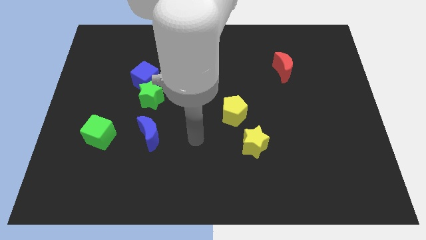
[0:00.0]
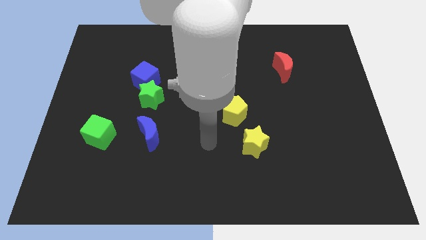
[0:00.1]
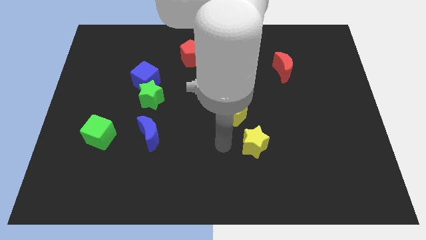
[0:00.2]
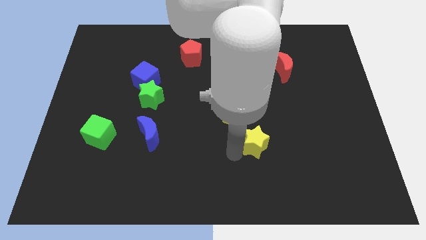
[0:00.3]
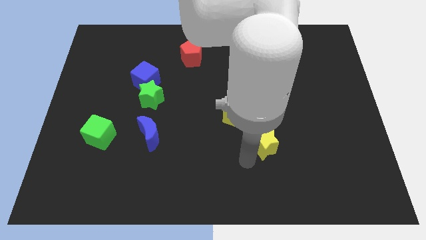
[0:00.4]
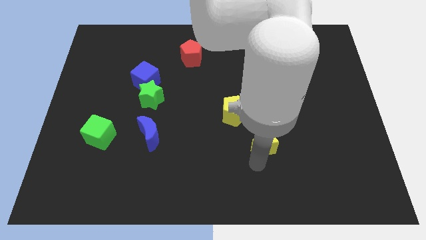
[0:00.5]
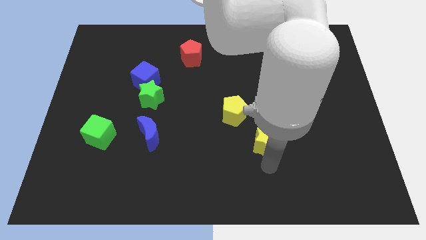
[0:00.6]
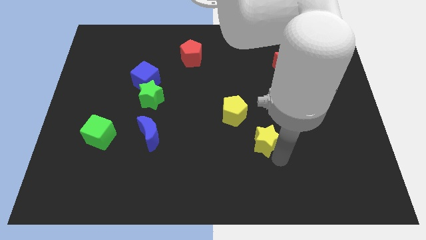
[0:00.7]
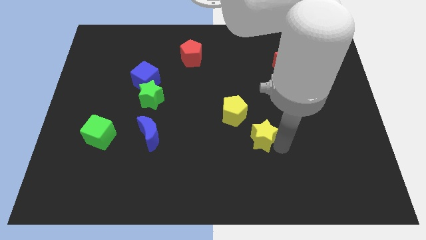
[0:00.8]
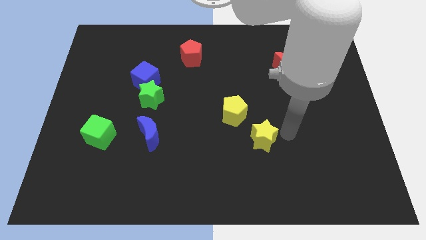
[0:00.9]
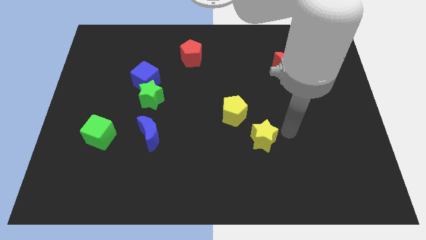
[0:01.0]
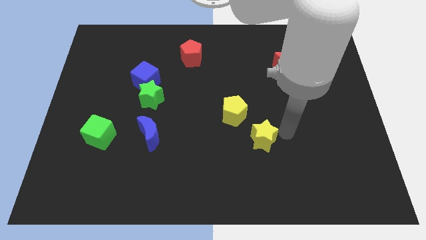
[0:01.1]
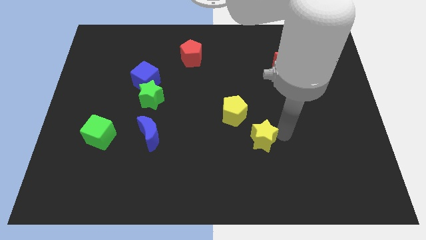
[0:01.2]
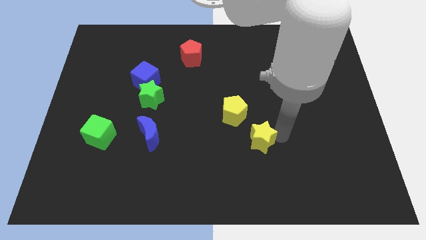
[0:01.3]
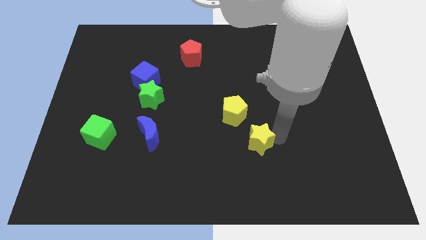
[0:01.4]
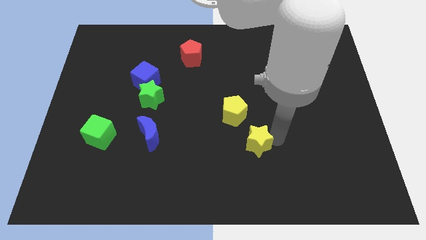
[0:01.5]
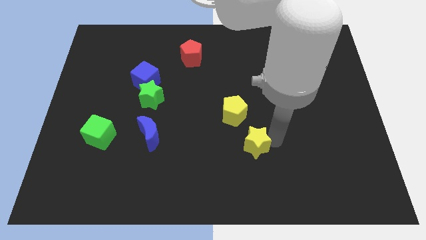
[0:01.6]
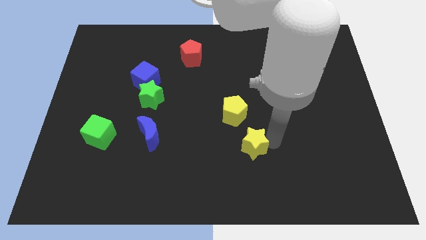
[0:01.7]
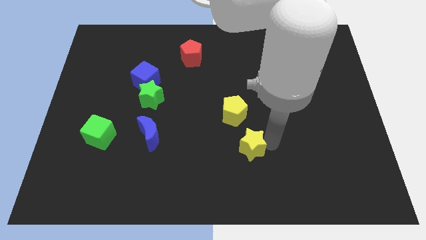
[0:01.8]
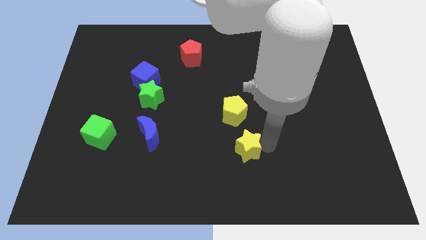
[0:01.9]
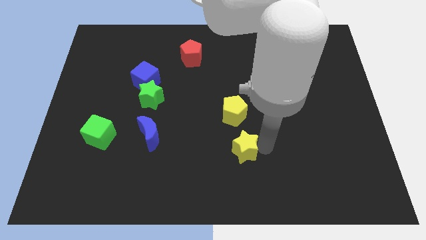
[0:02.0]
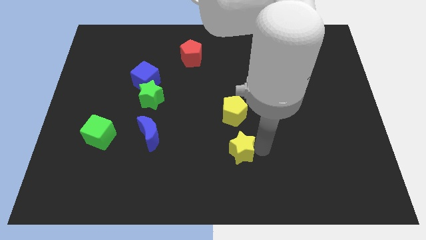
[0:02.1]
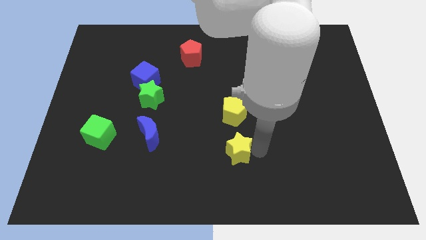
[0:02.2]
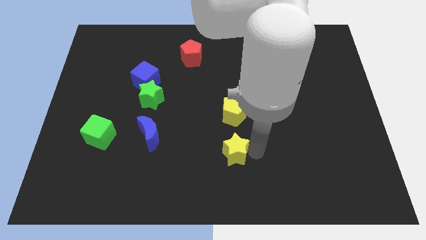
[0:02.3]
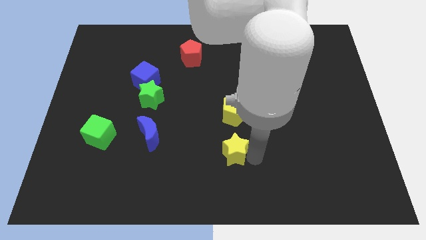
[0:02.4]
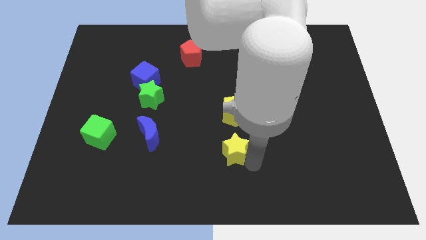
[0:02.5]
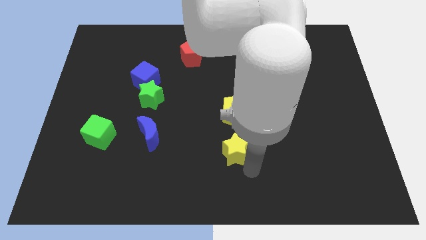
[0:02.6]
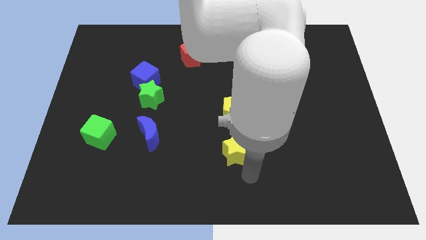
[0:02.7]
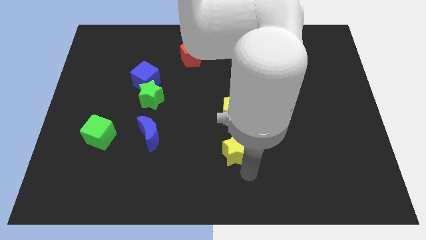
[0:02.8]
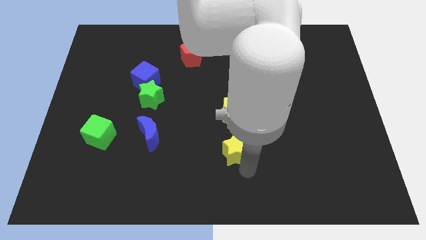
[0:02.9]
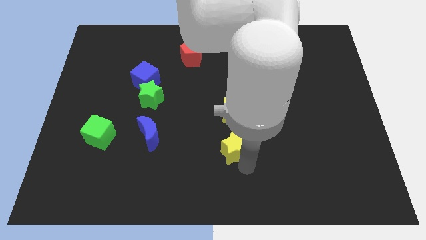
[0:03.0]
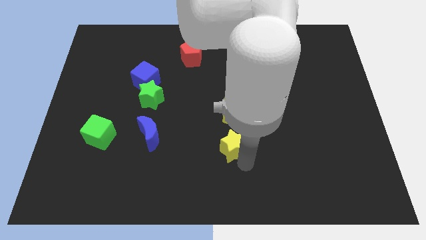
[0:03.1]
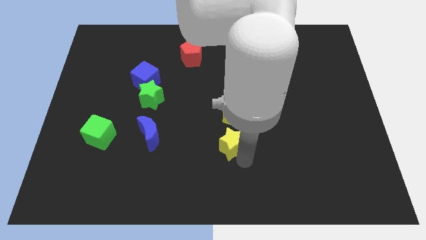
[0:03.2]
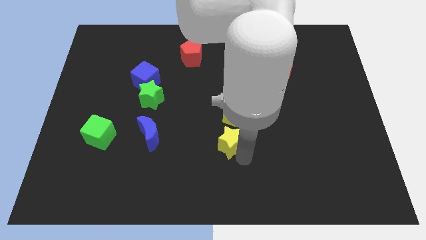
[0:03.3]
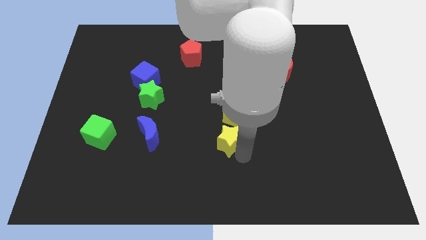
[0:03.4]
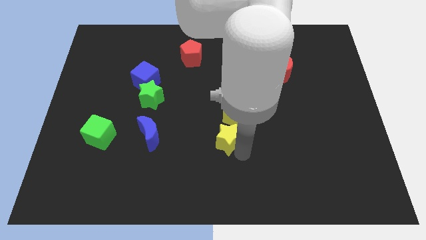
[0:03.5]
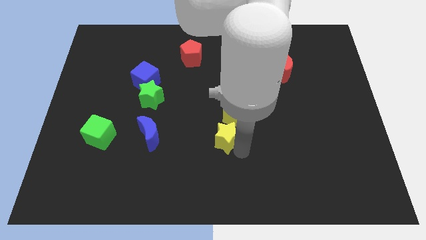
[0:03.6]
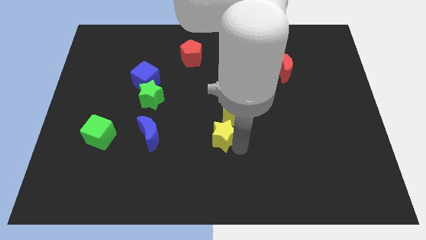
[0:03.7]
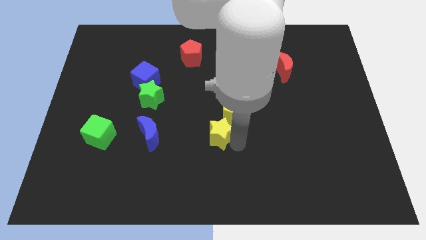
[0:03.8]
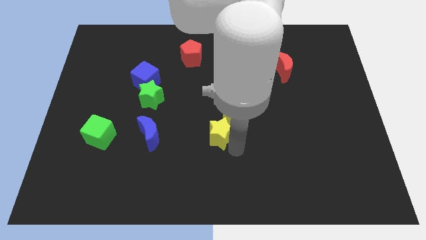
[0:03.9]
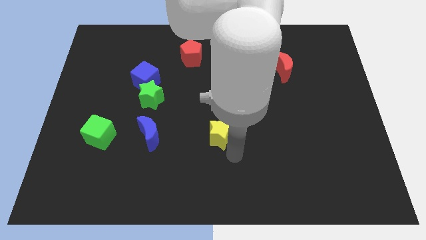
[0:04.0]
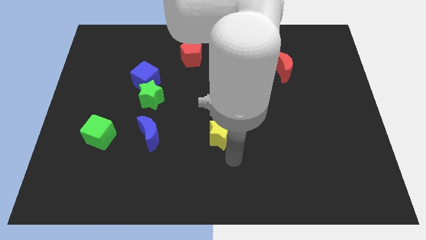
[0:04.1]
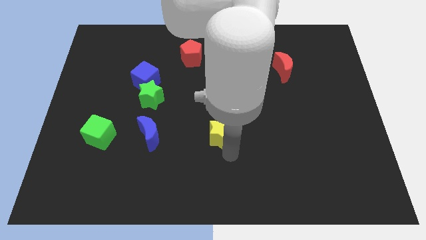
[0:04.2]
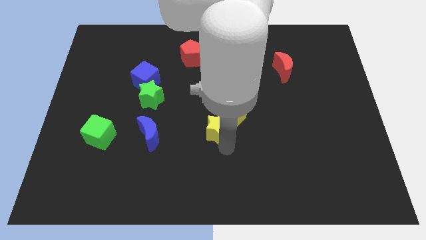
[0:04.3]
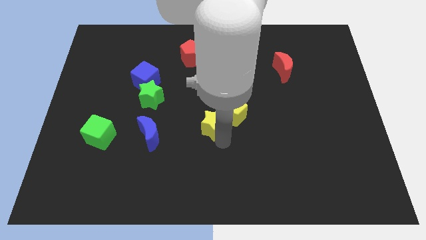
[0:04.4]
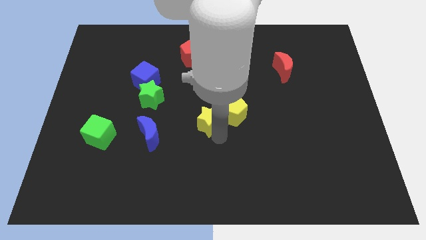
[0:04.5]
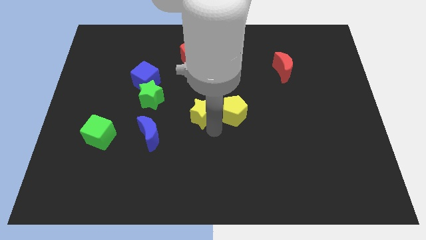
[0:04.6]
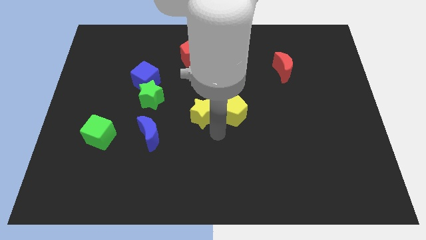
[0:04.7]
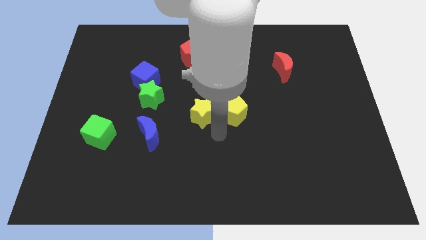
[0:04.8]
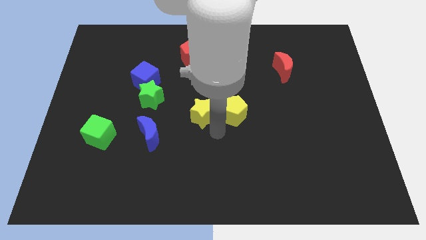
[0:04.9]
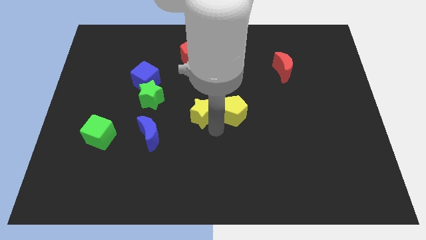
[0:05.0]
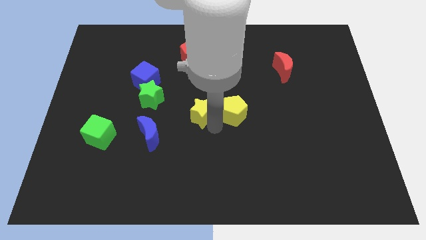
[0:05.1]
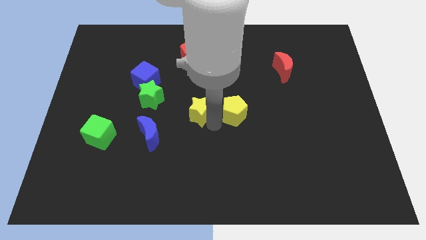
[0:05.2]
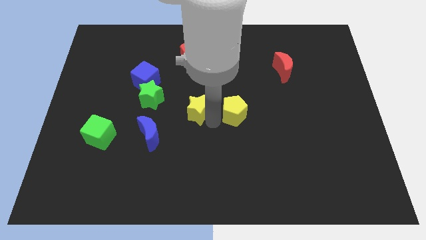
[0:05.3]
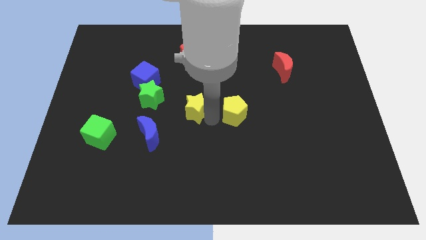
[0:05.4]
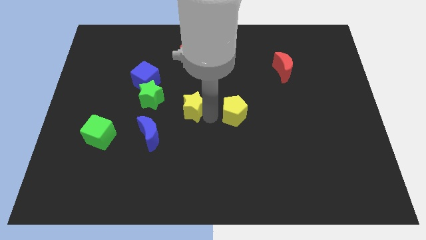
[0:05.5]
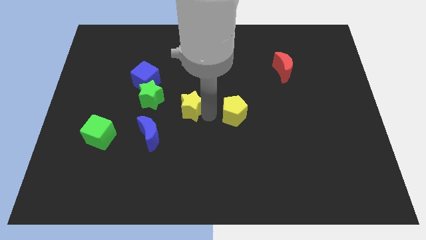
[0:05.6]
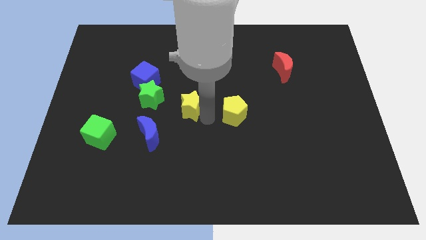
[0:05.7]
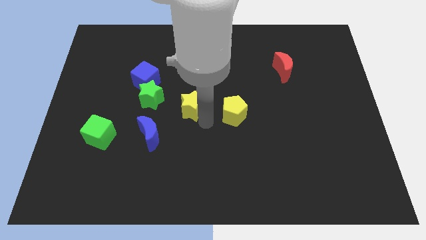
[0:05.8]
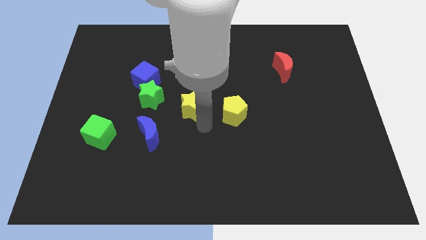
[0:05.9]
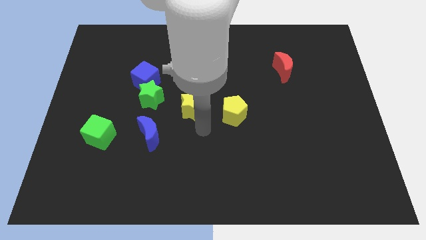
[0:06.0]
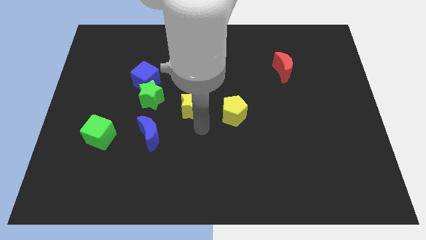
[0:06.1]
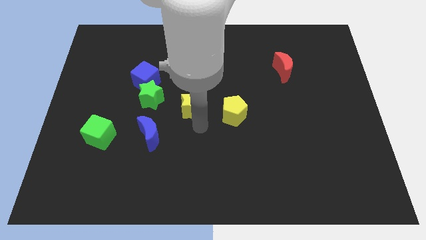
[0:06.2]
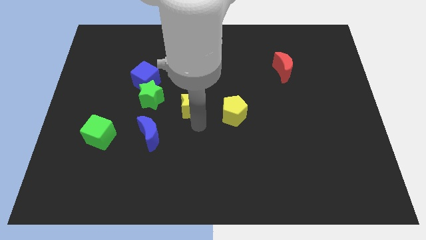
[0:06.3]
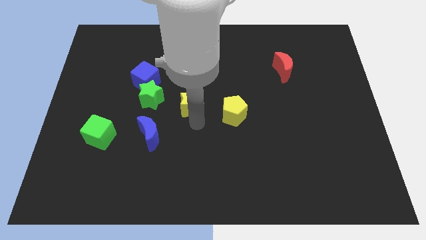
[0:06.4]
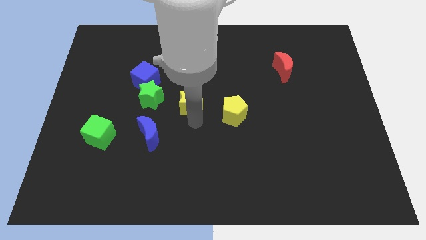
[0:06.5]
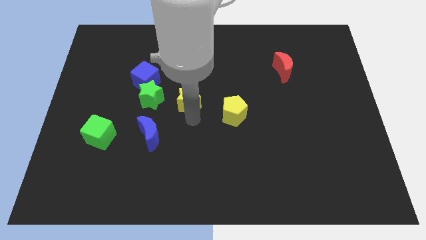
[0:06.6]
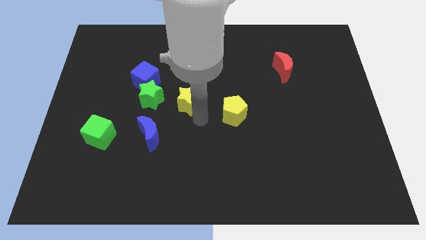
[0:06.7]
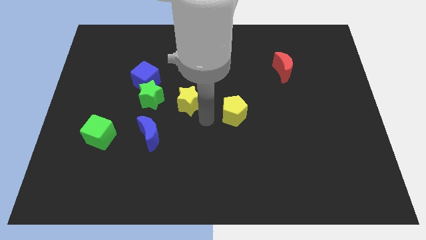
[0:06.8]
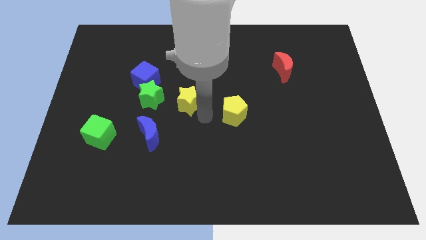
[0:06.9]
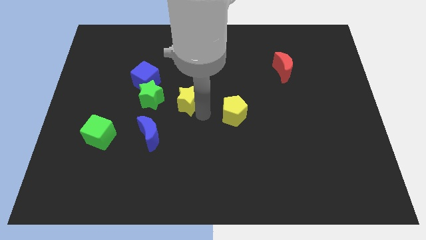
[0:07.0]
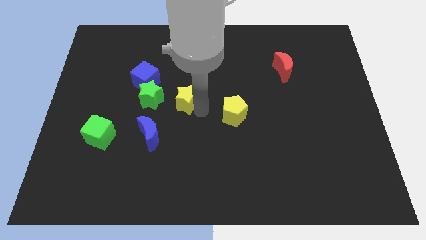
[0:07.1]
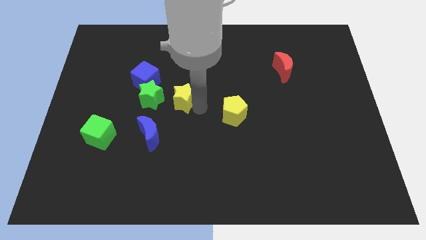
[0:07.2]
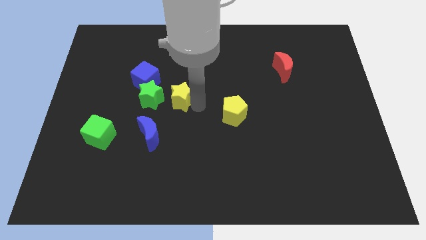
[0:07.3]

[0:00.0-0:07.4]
push the yellow star up and left diagonally

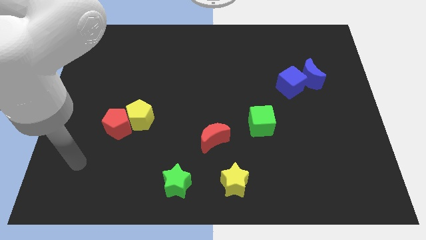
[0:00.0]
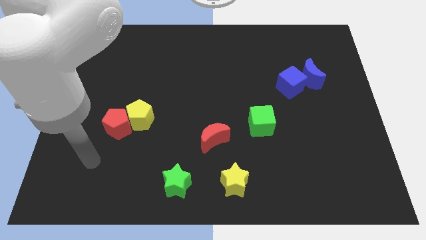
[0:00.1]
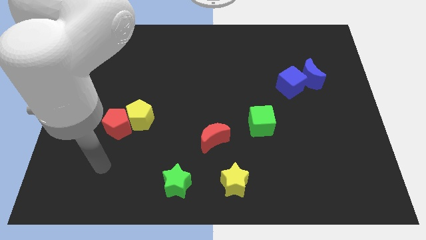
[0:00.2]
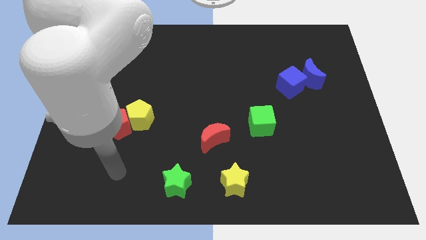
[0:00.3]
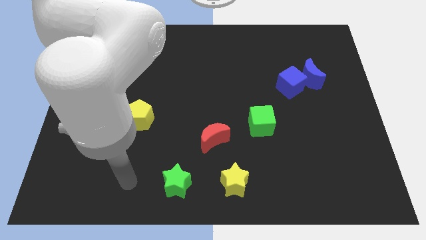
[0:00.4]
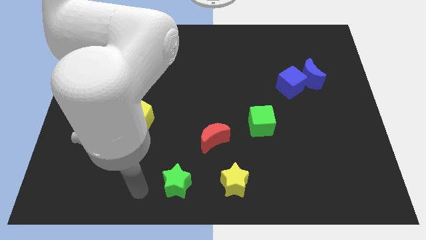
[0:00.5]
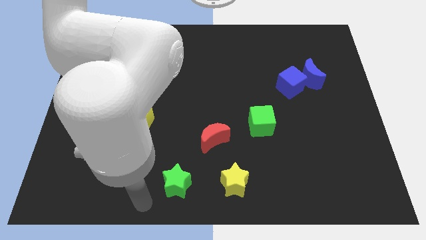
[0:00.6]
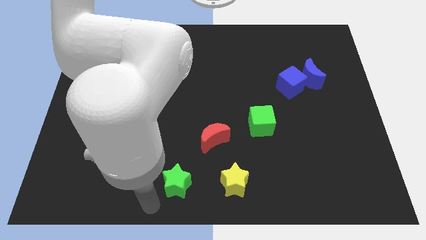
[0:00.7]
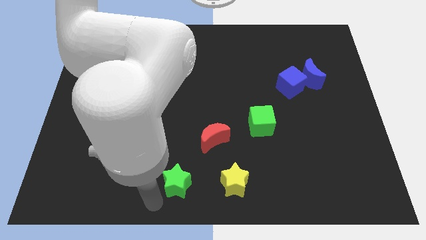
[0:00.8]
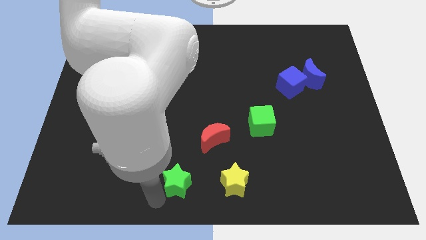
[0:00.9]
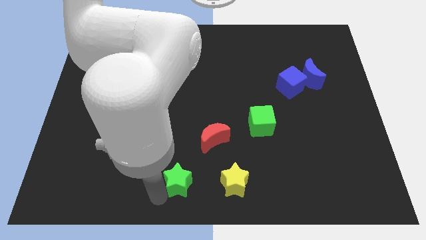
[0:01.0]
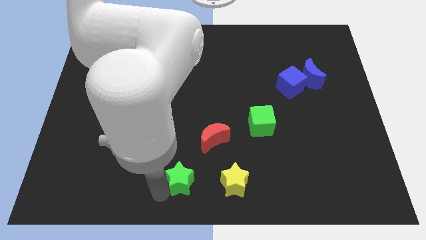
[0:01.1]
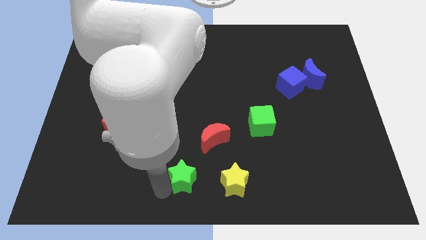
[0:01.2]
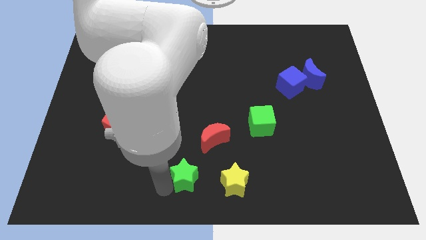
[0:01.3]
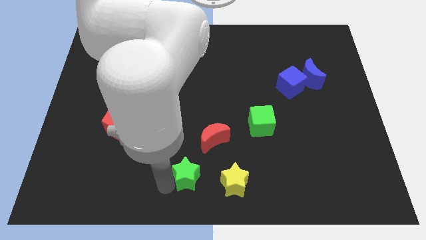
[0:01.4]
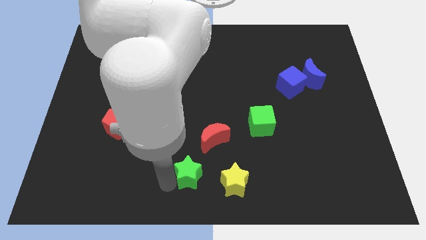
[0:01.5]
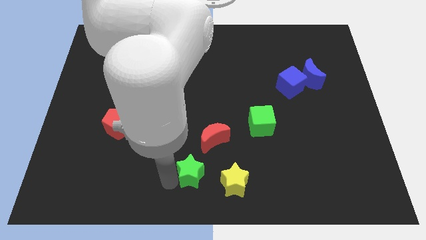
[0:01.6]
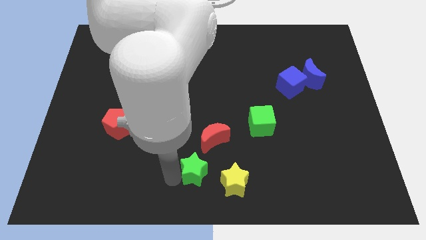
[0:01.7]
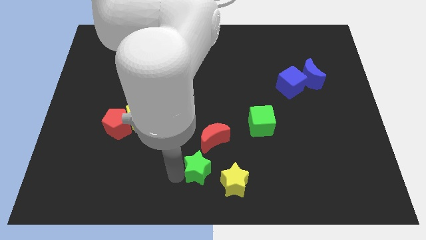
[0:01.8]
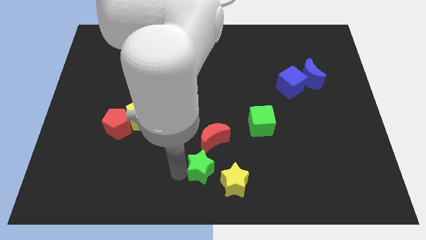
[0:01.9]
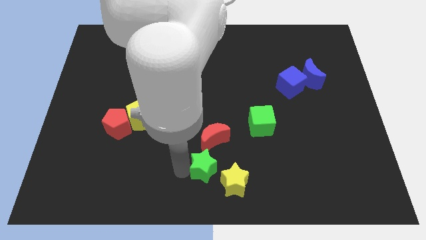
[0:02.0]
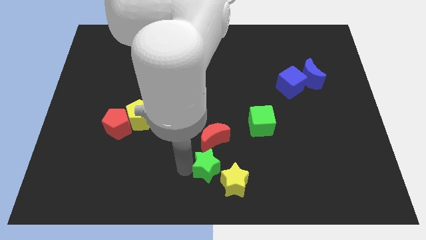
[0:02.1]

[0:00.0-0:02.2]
push the green star upwards and right a little bit
